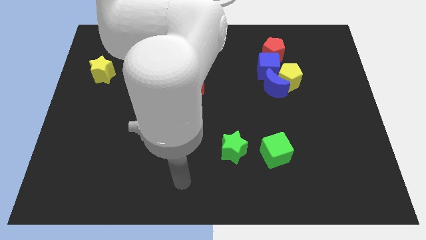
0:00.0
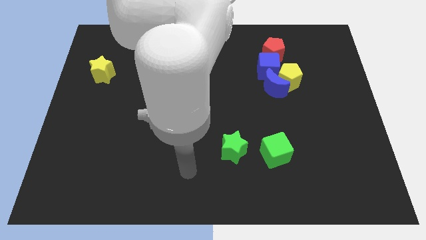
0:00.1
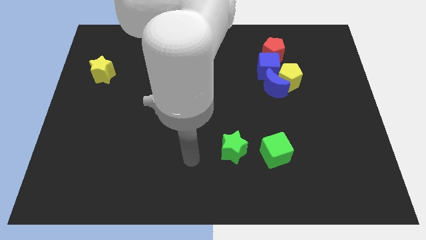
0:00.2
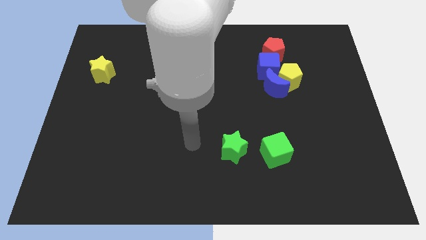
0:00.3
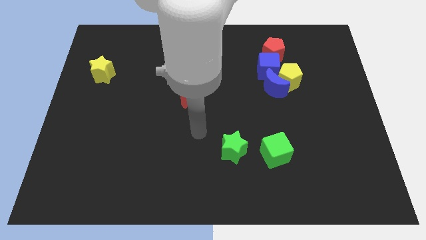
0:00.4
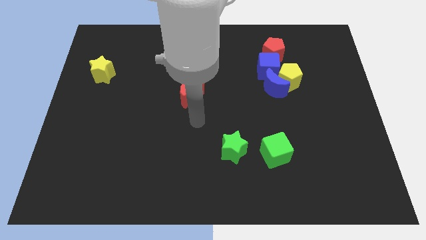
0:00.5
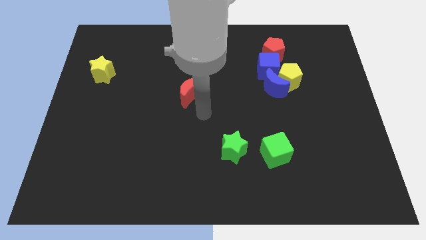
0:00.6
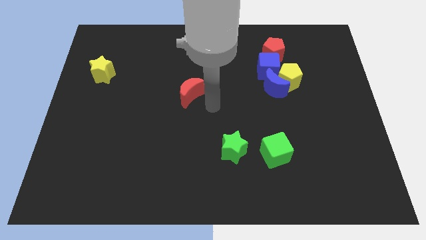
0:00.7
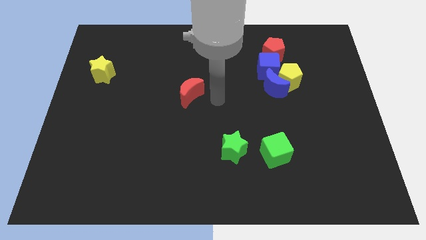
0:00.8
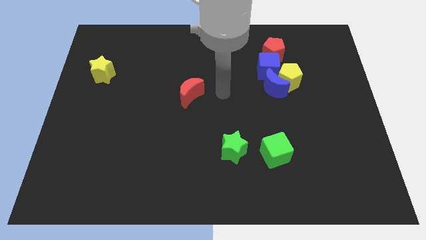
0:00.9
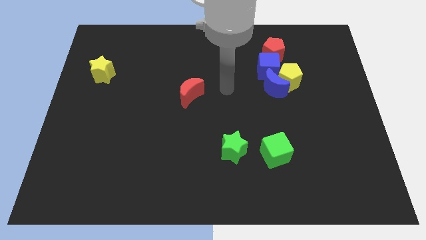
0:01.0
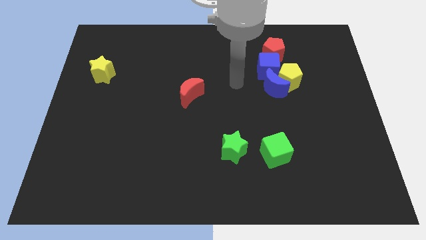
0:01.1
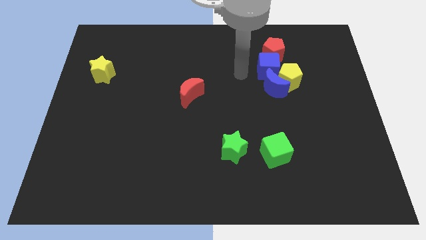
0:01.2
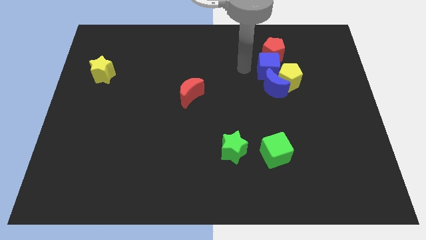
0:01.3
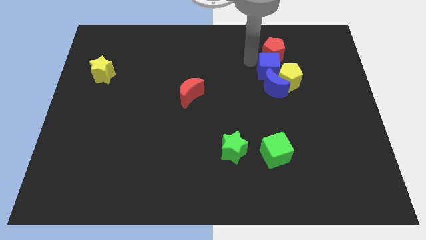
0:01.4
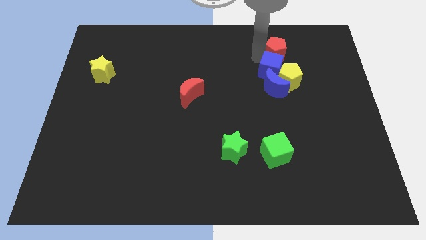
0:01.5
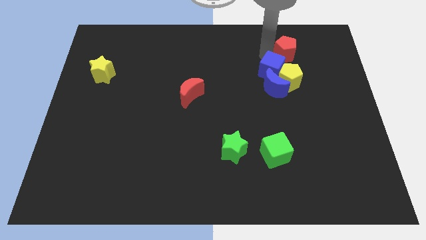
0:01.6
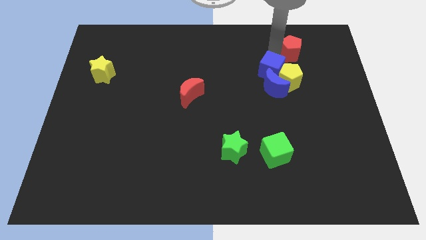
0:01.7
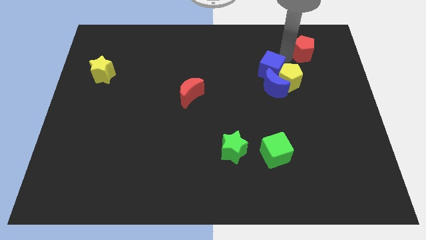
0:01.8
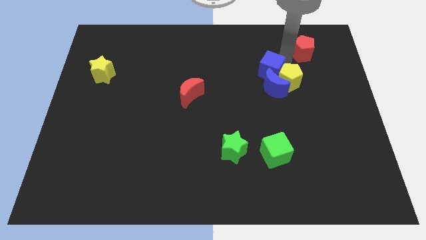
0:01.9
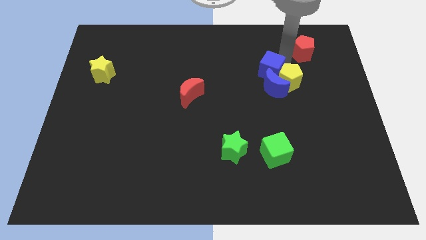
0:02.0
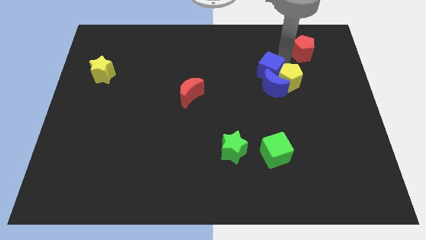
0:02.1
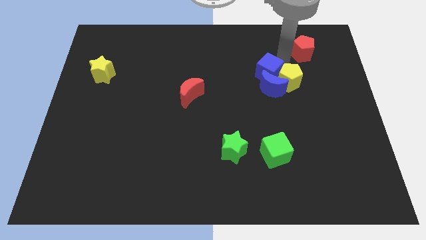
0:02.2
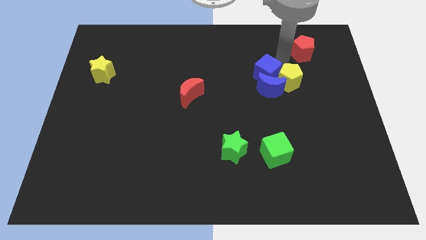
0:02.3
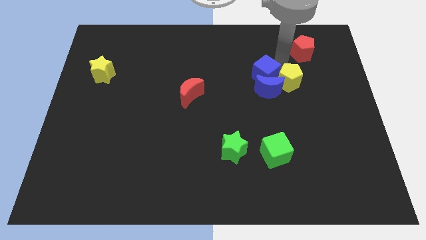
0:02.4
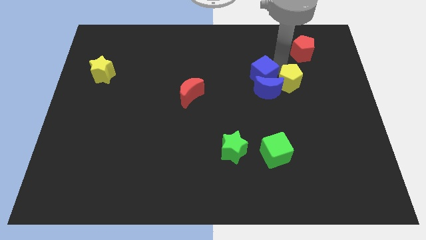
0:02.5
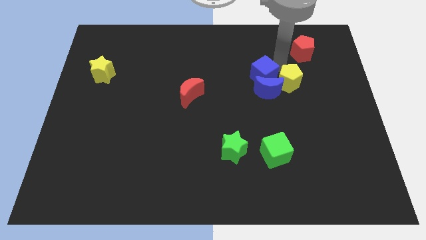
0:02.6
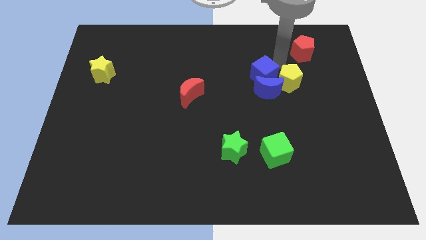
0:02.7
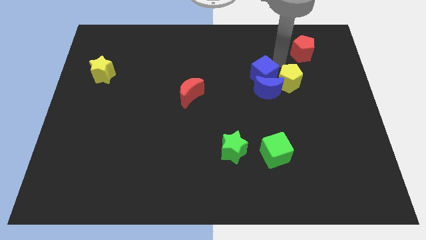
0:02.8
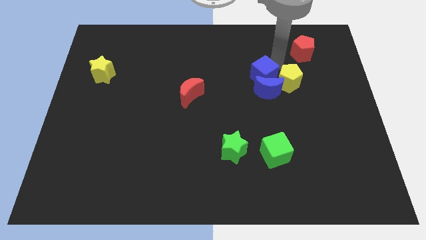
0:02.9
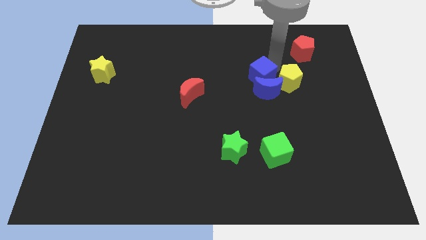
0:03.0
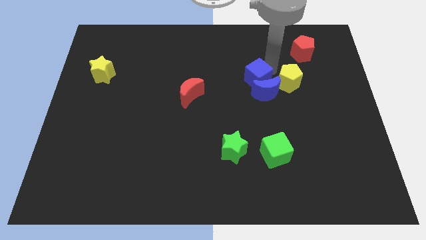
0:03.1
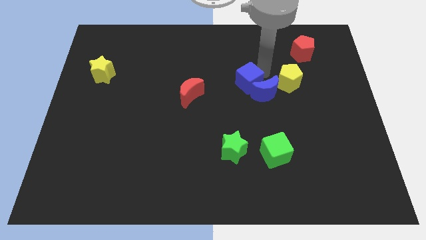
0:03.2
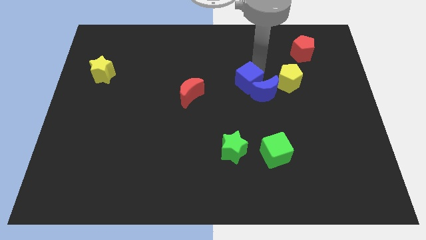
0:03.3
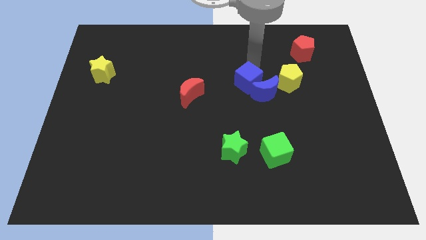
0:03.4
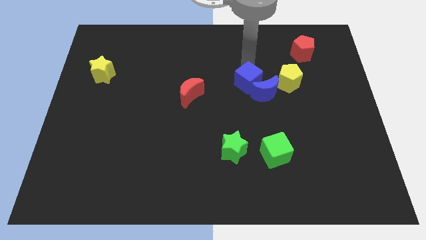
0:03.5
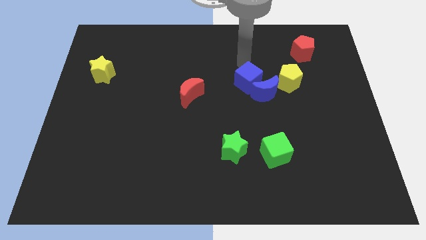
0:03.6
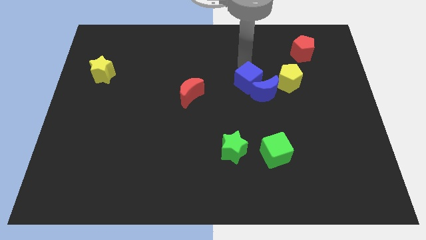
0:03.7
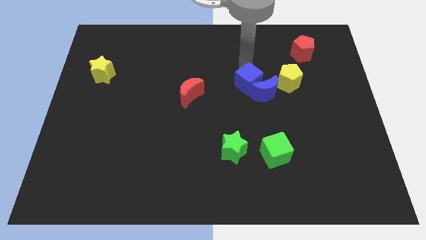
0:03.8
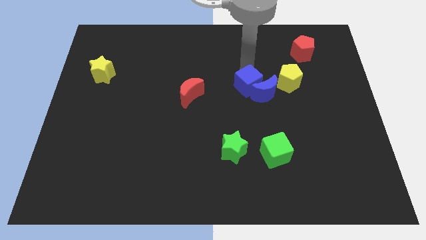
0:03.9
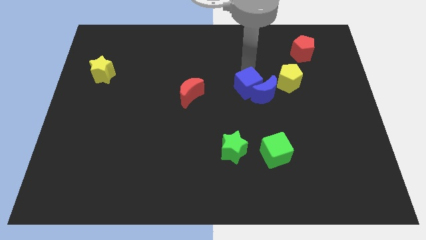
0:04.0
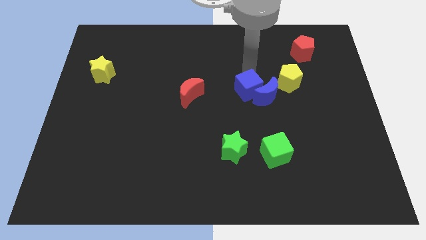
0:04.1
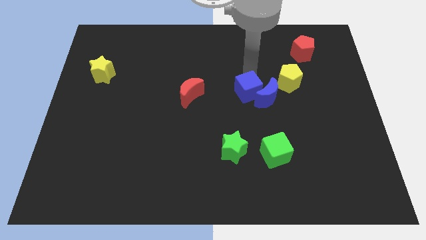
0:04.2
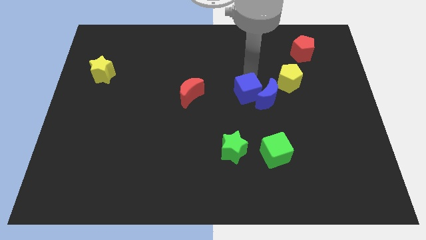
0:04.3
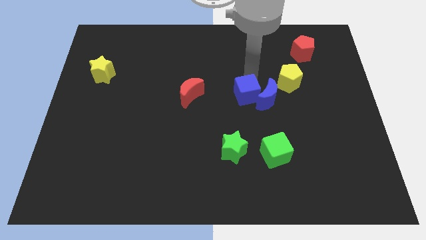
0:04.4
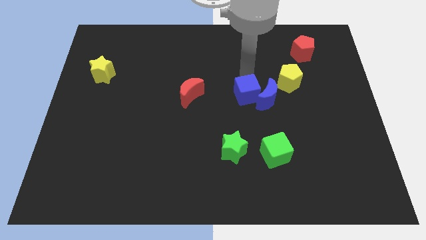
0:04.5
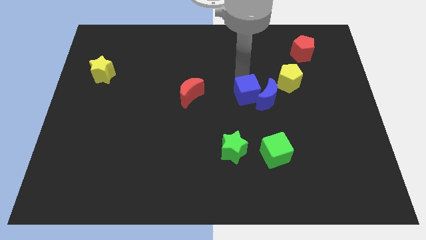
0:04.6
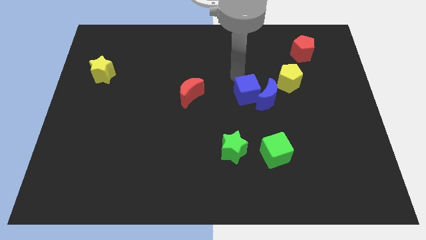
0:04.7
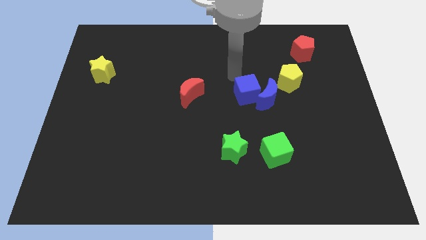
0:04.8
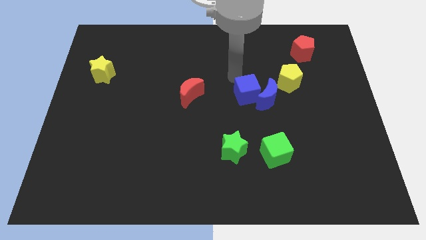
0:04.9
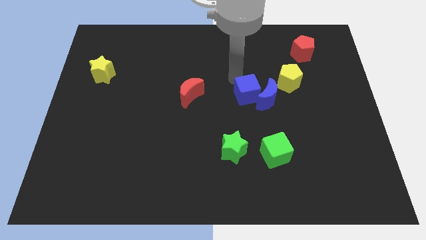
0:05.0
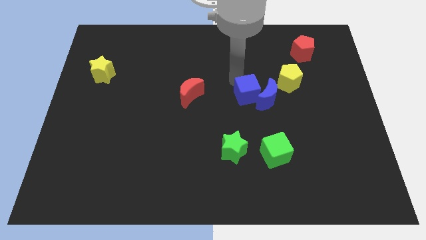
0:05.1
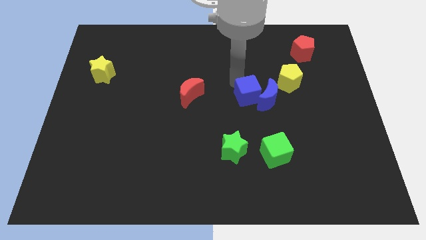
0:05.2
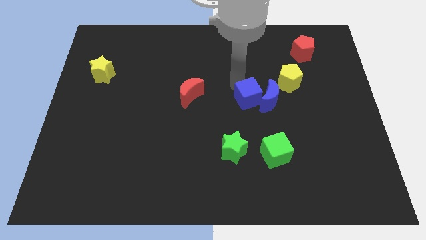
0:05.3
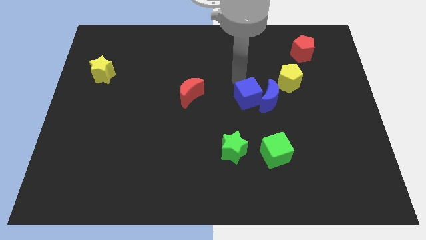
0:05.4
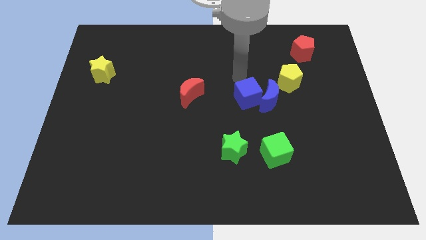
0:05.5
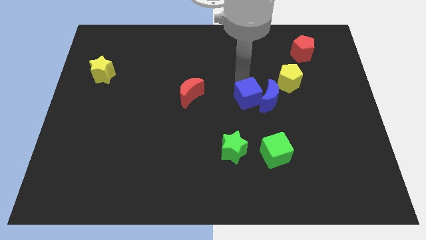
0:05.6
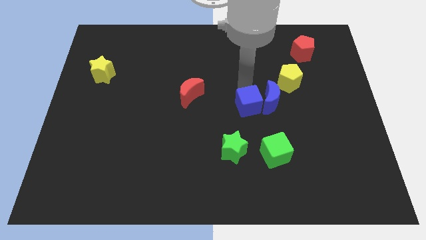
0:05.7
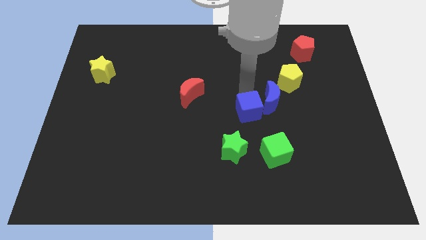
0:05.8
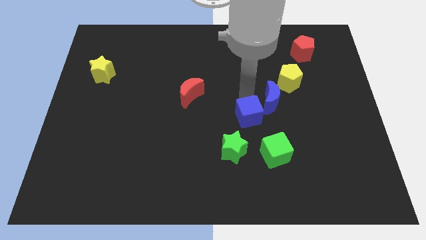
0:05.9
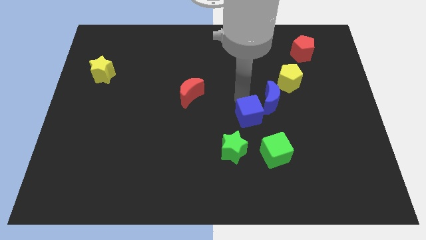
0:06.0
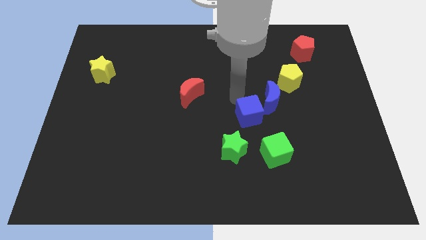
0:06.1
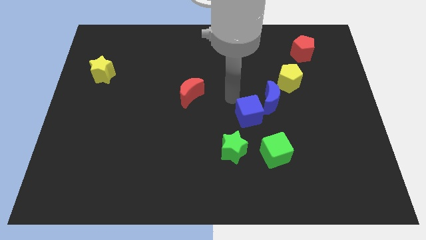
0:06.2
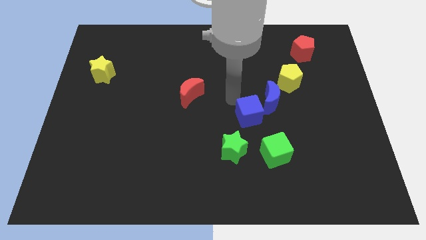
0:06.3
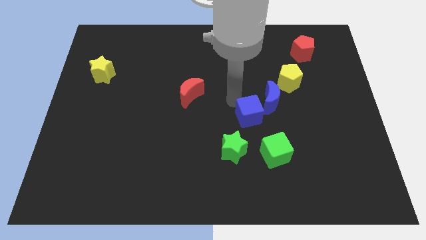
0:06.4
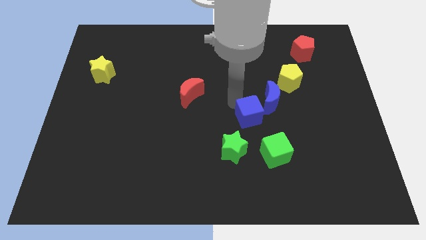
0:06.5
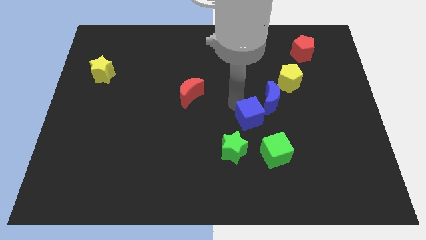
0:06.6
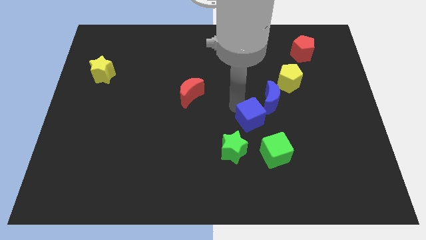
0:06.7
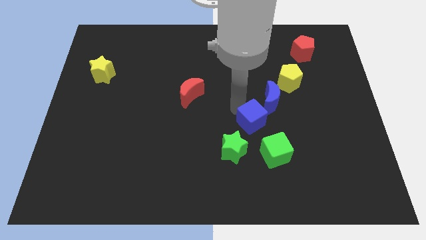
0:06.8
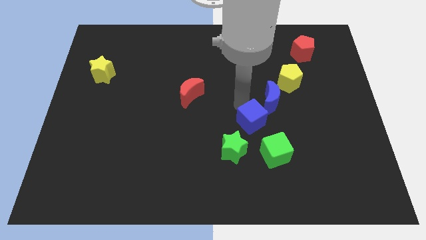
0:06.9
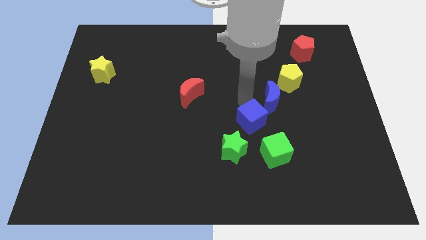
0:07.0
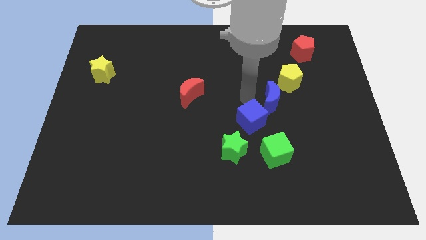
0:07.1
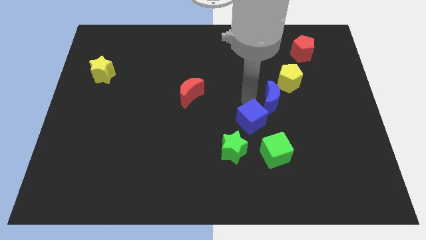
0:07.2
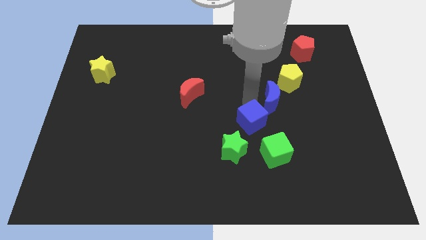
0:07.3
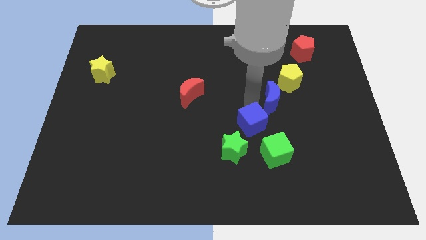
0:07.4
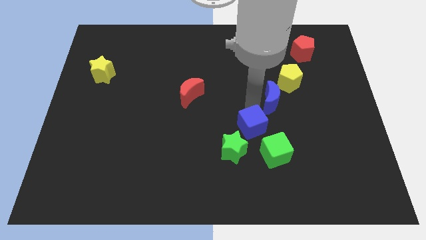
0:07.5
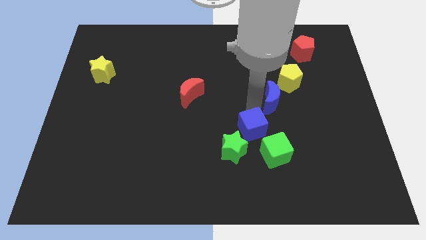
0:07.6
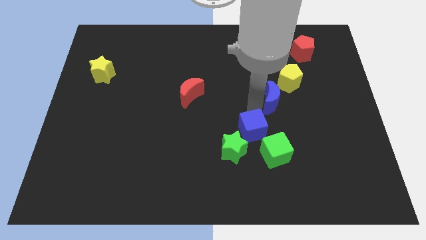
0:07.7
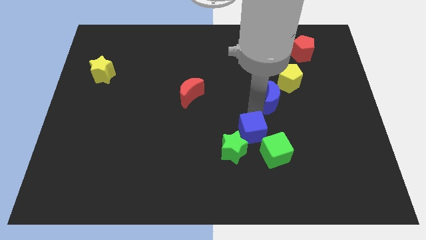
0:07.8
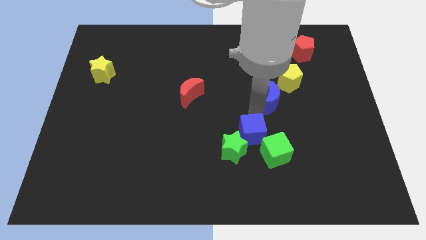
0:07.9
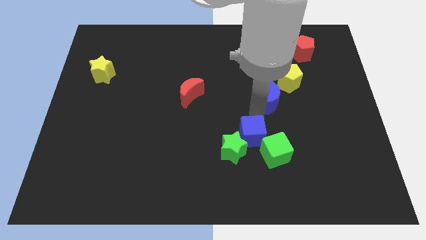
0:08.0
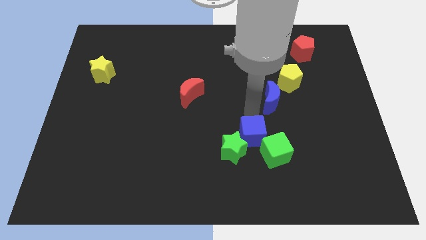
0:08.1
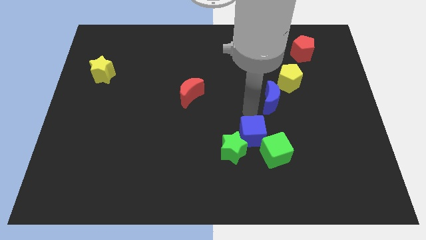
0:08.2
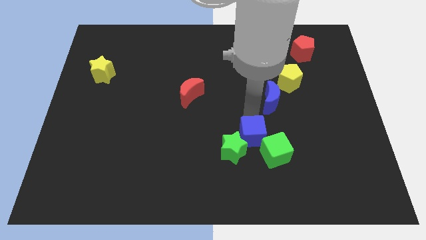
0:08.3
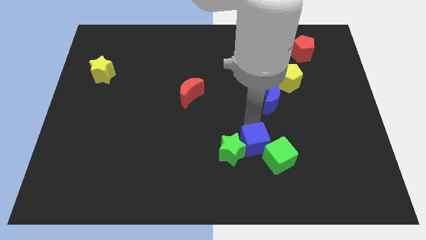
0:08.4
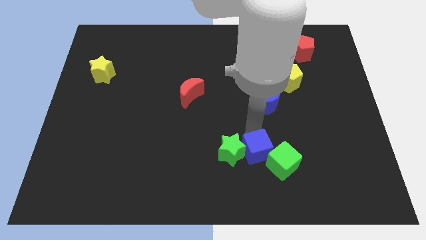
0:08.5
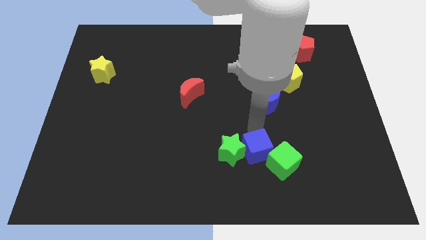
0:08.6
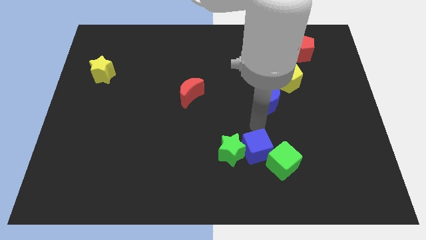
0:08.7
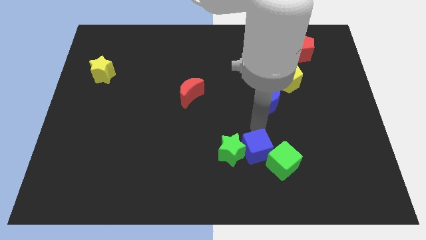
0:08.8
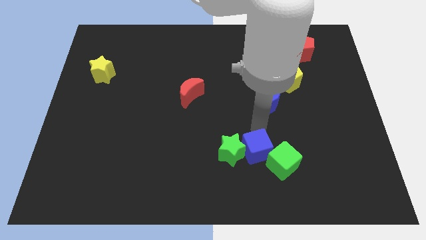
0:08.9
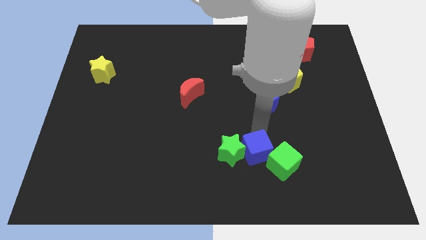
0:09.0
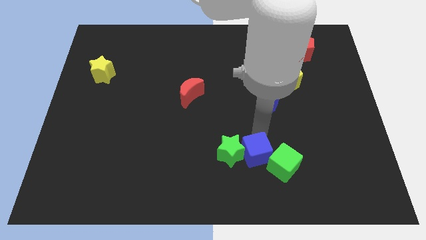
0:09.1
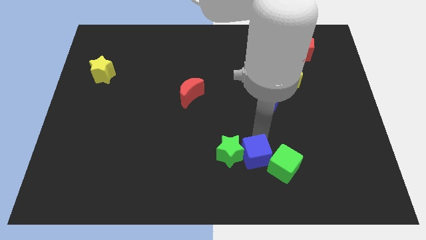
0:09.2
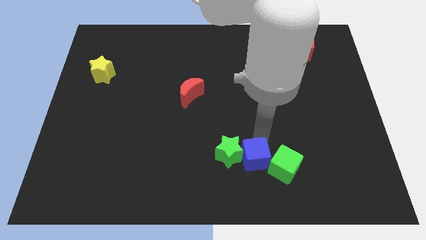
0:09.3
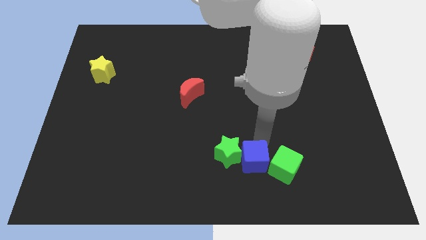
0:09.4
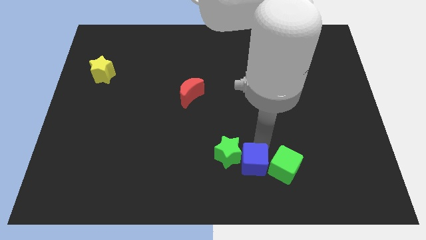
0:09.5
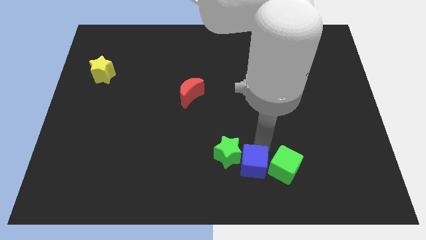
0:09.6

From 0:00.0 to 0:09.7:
push the blue cube to the bottom
